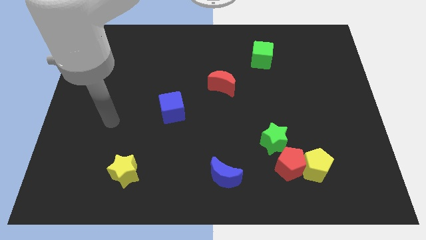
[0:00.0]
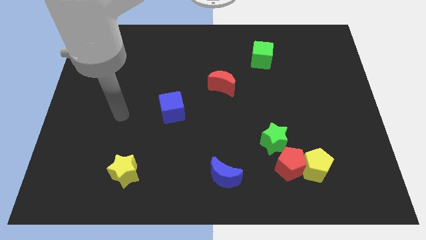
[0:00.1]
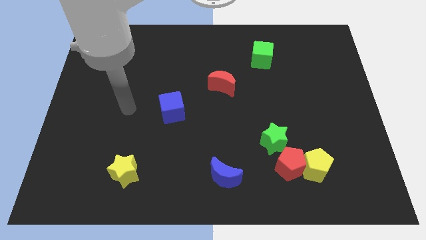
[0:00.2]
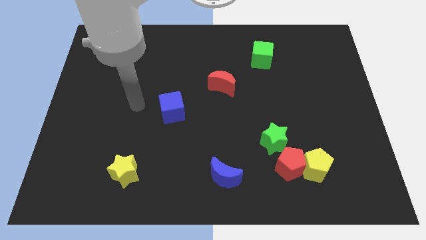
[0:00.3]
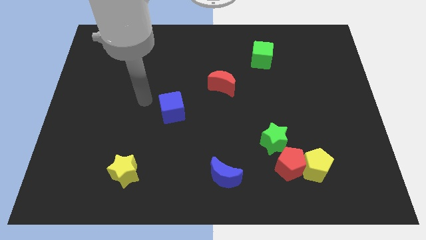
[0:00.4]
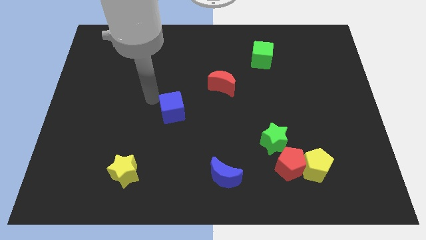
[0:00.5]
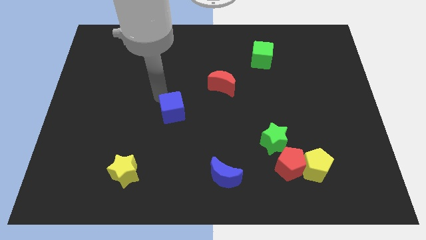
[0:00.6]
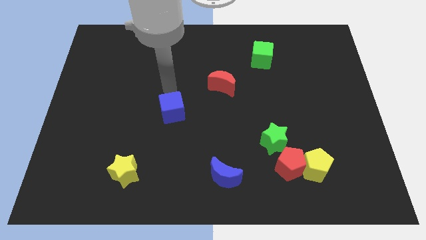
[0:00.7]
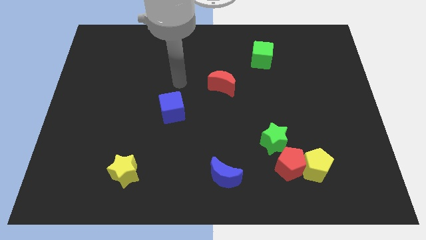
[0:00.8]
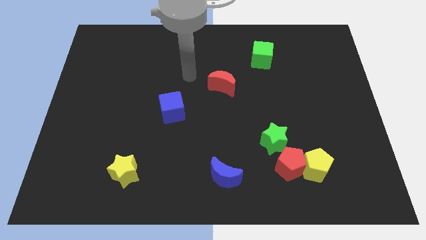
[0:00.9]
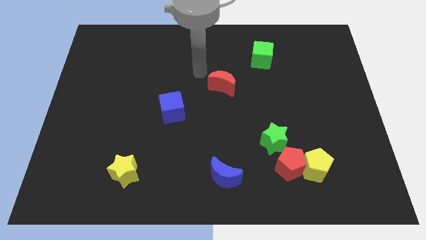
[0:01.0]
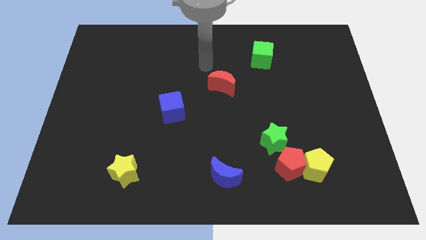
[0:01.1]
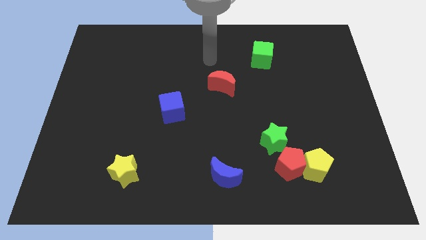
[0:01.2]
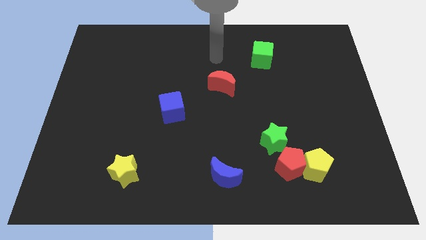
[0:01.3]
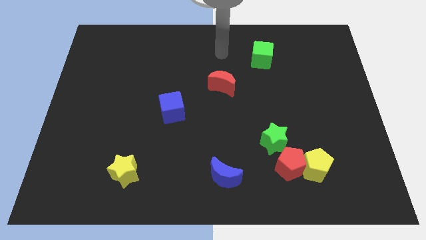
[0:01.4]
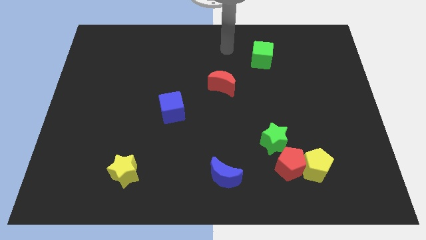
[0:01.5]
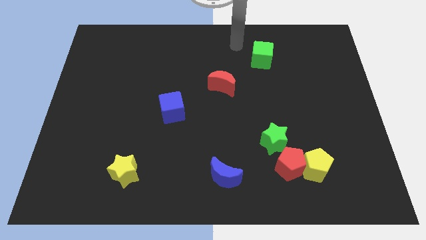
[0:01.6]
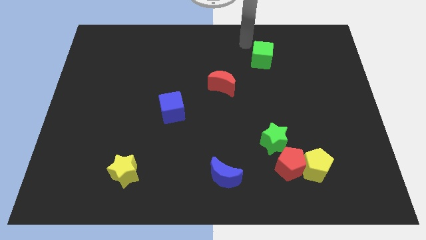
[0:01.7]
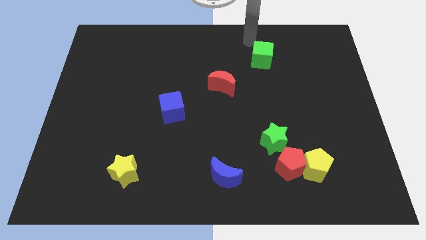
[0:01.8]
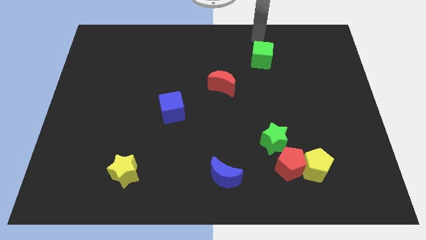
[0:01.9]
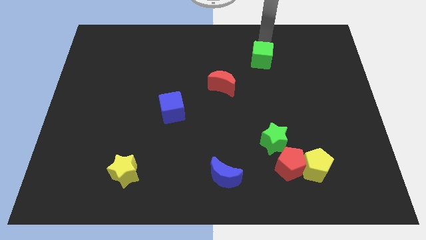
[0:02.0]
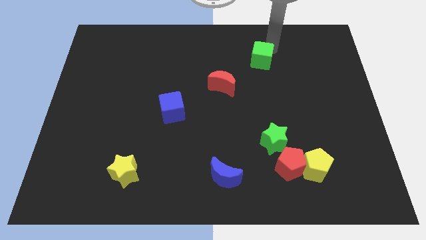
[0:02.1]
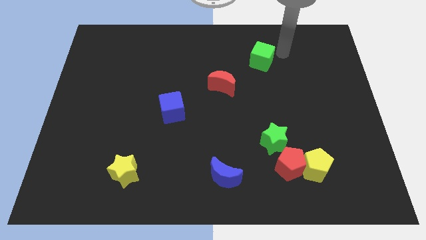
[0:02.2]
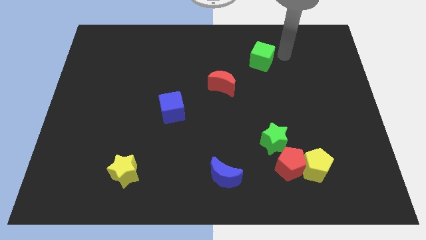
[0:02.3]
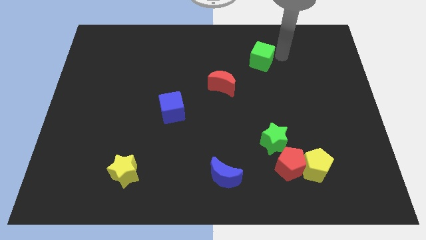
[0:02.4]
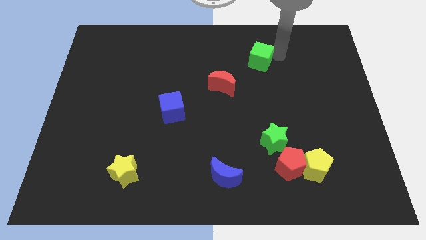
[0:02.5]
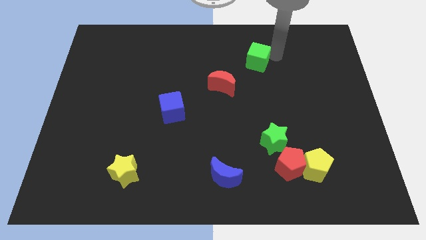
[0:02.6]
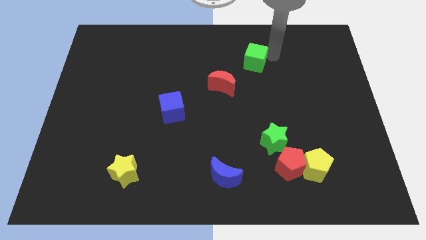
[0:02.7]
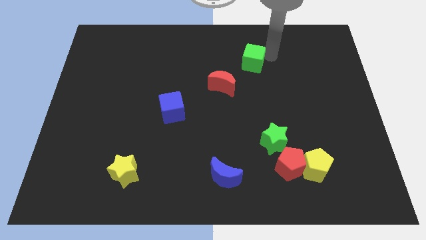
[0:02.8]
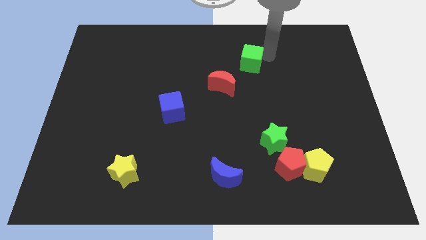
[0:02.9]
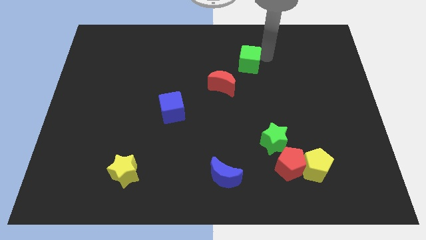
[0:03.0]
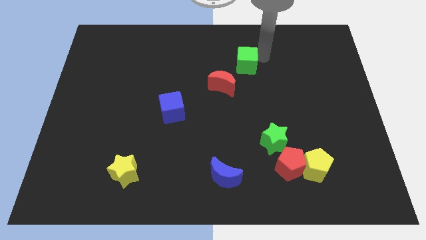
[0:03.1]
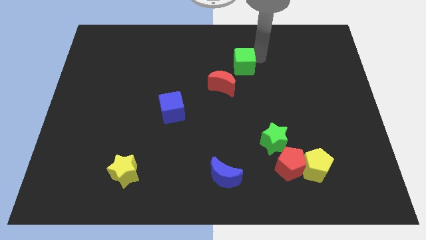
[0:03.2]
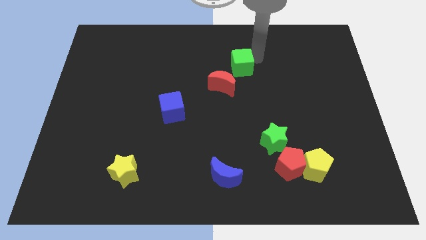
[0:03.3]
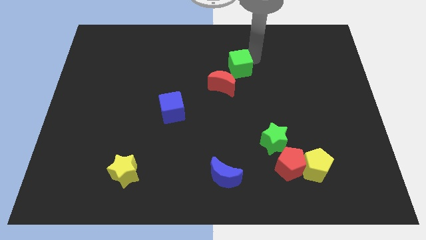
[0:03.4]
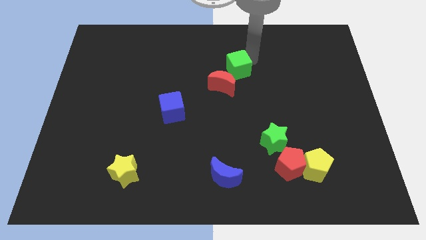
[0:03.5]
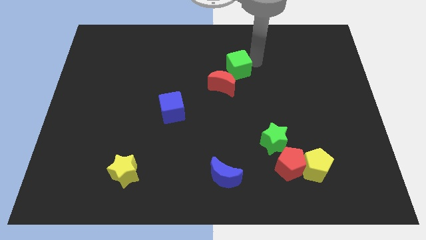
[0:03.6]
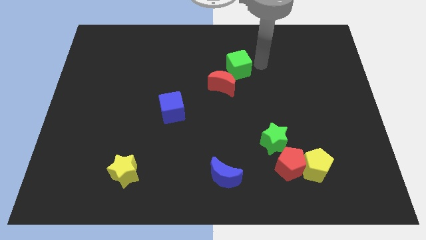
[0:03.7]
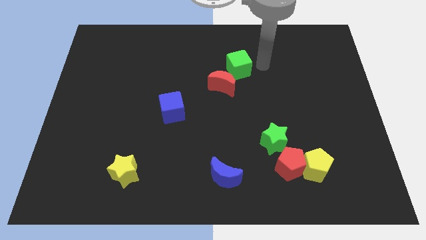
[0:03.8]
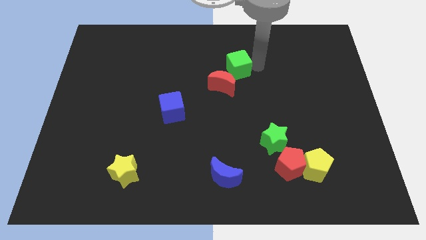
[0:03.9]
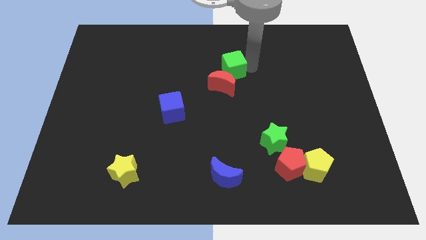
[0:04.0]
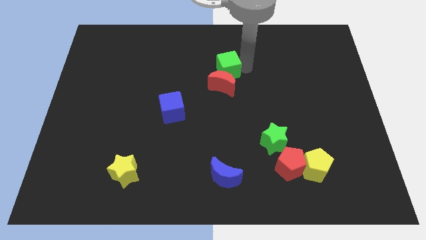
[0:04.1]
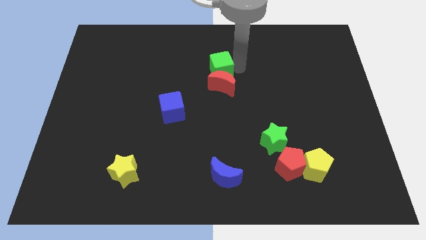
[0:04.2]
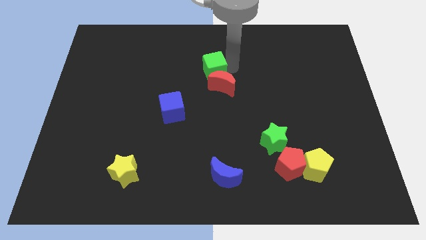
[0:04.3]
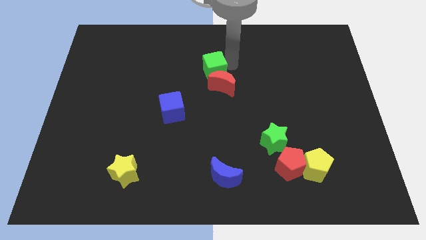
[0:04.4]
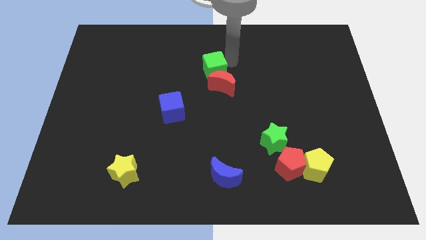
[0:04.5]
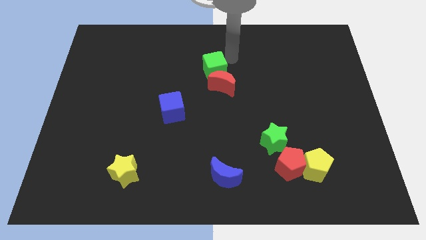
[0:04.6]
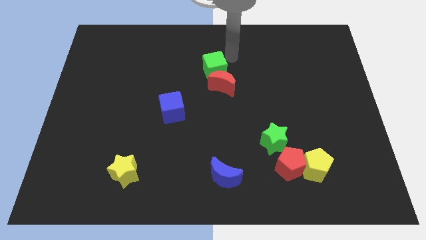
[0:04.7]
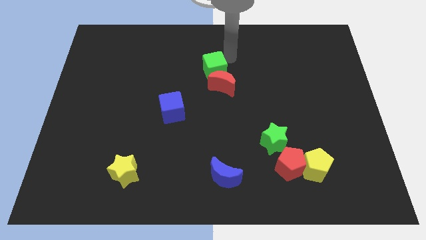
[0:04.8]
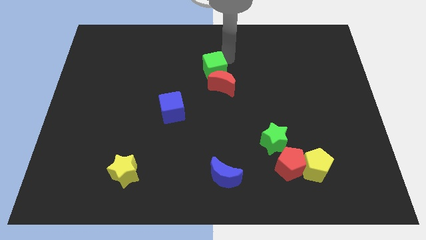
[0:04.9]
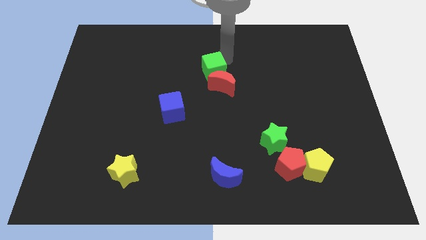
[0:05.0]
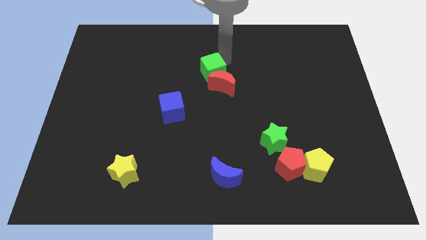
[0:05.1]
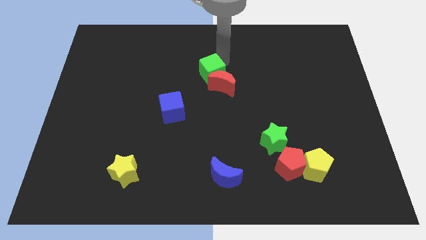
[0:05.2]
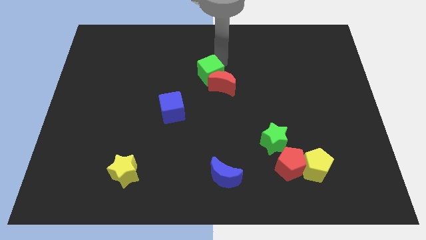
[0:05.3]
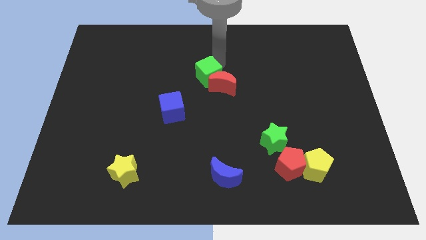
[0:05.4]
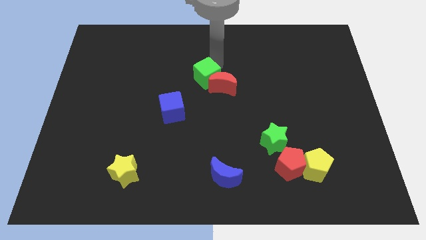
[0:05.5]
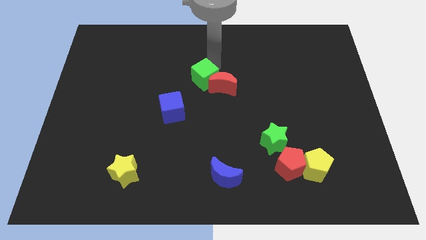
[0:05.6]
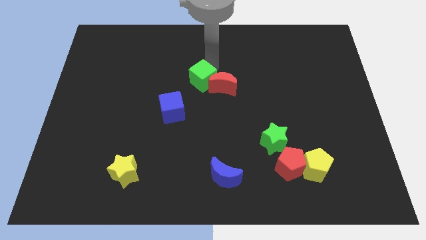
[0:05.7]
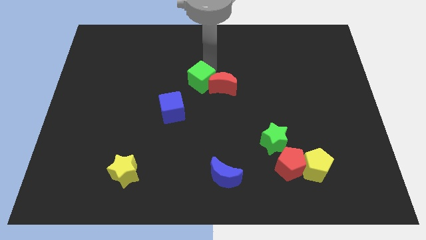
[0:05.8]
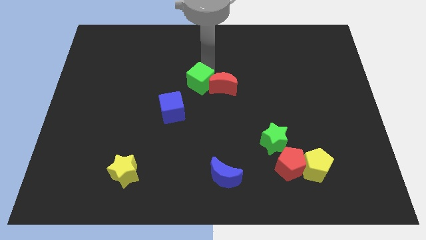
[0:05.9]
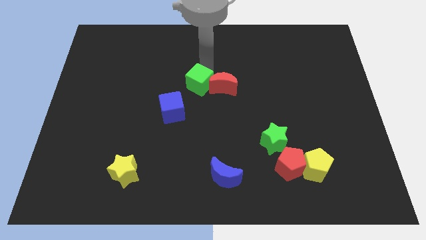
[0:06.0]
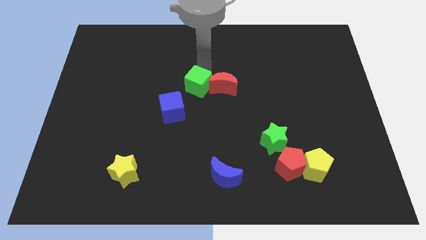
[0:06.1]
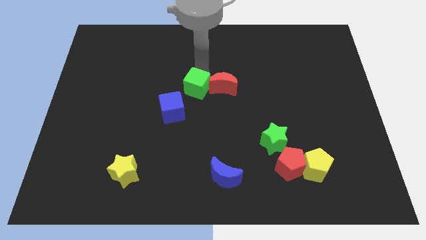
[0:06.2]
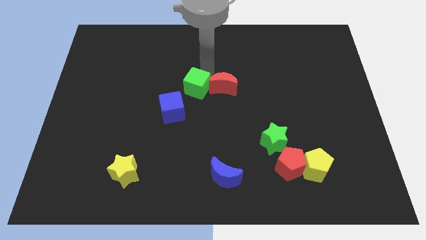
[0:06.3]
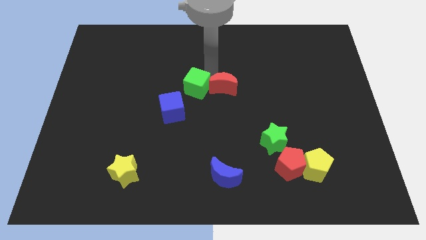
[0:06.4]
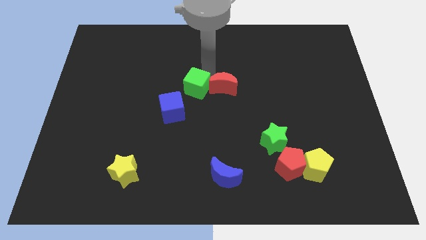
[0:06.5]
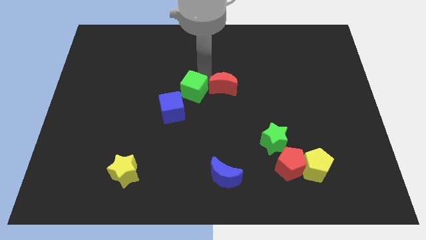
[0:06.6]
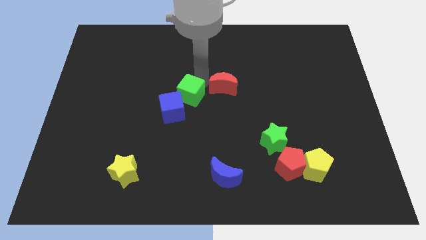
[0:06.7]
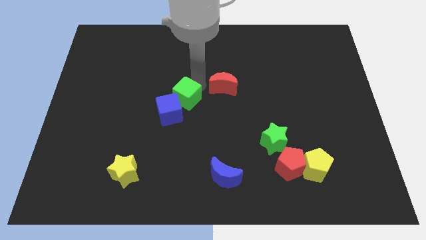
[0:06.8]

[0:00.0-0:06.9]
move the green cube to the blue cube
